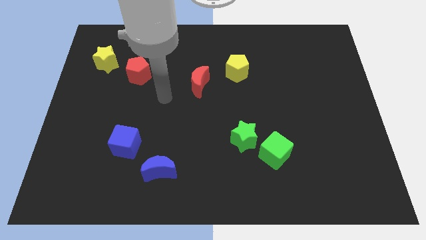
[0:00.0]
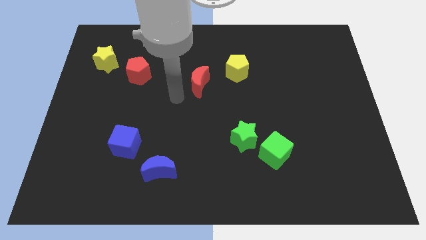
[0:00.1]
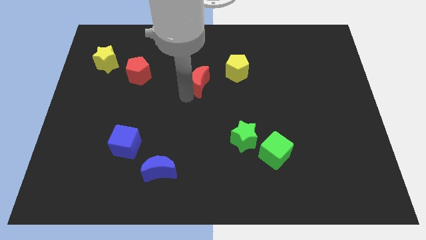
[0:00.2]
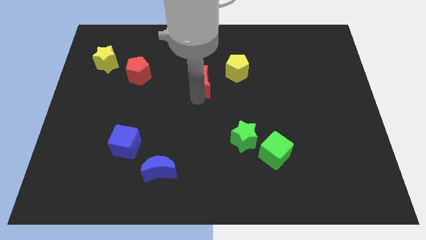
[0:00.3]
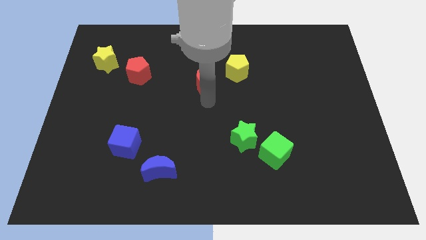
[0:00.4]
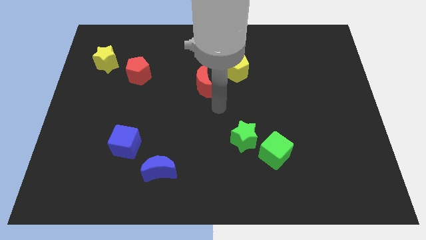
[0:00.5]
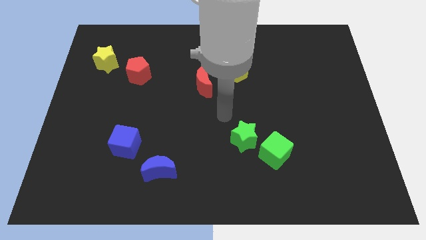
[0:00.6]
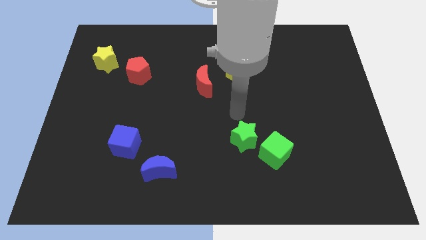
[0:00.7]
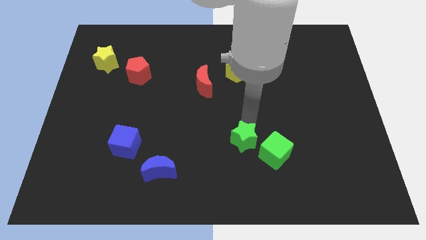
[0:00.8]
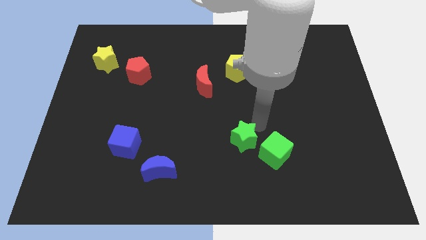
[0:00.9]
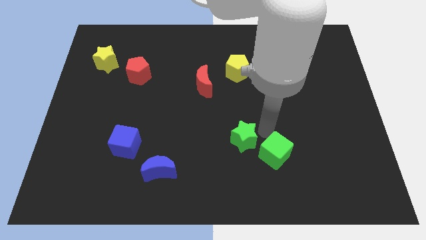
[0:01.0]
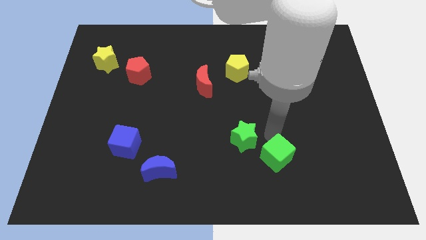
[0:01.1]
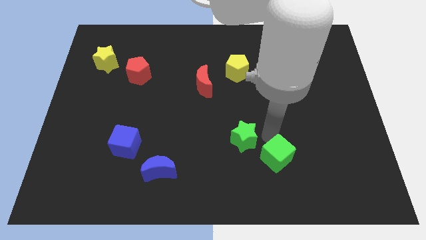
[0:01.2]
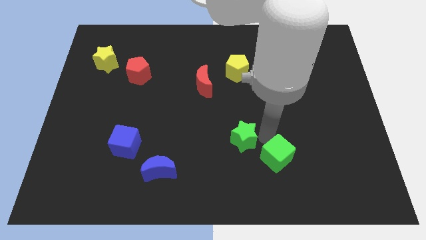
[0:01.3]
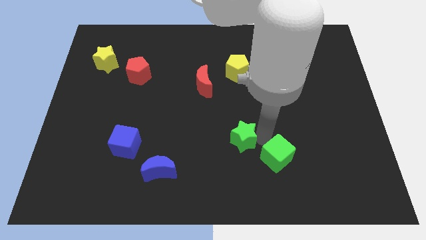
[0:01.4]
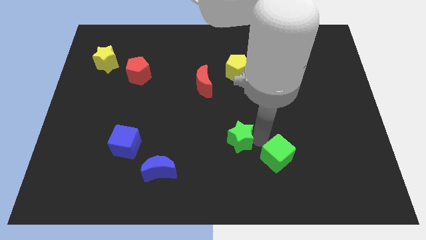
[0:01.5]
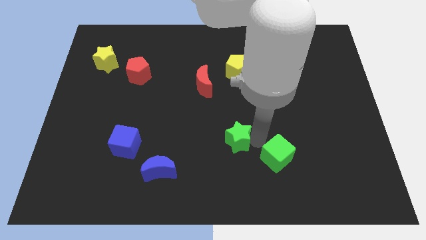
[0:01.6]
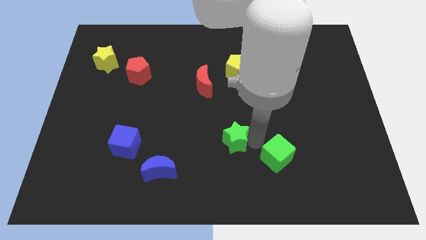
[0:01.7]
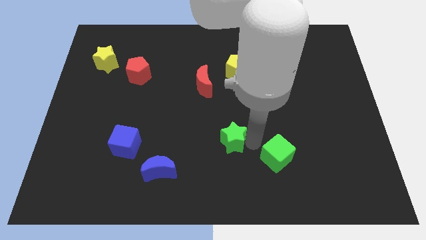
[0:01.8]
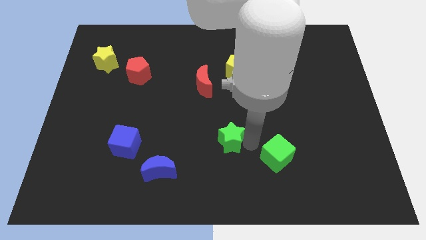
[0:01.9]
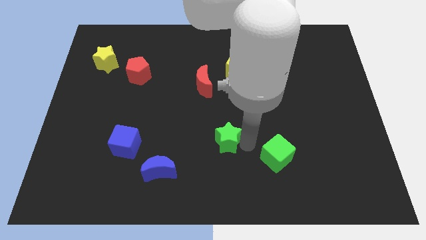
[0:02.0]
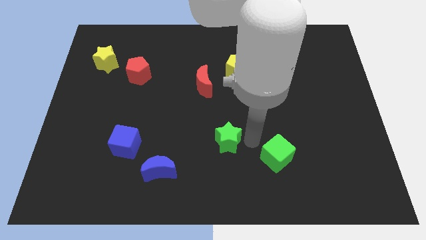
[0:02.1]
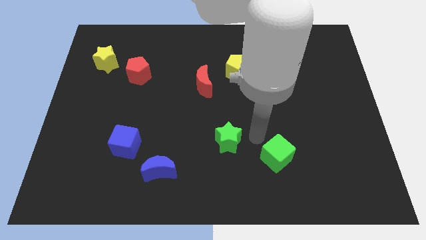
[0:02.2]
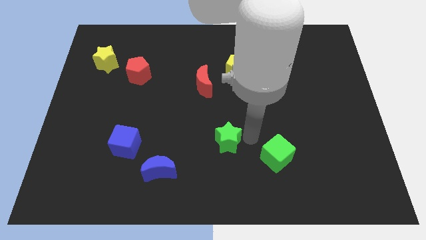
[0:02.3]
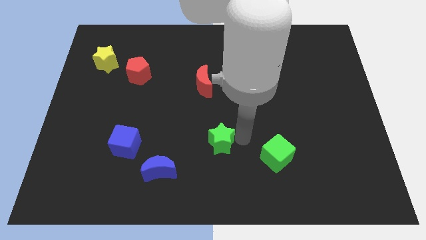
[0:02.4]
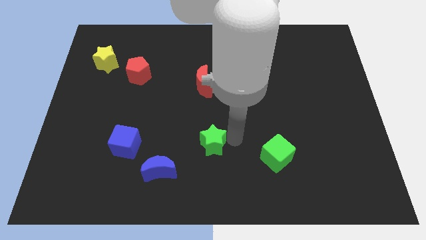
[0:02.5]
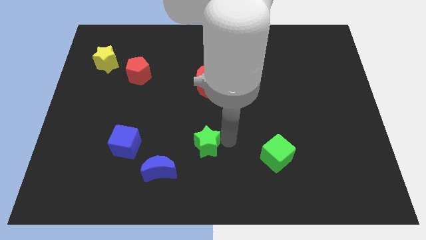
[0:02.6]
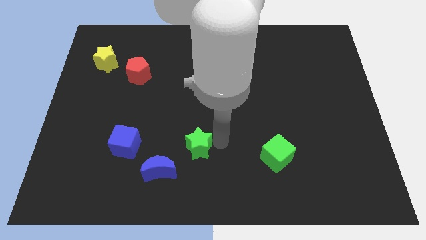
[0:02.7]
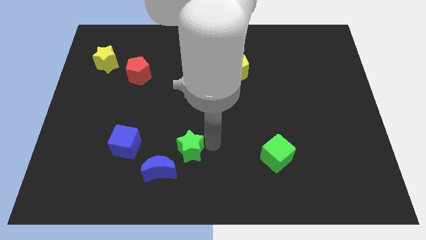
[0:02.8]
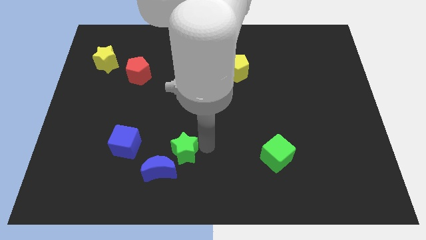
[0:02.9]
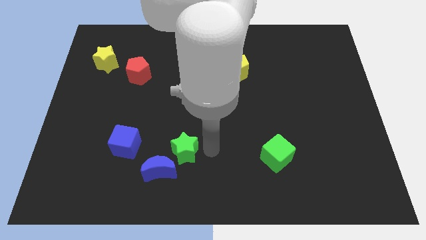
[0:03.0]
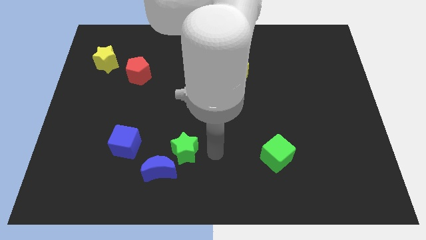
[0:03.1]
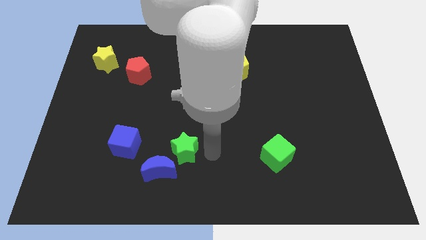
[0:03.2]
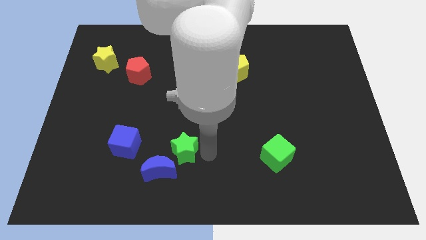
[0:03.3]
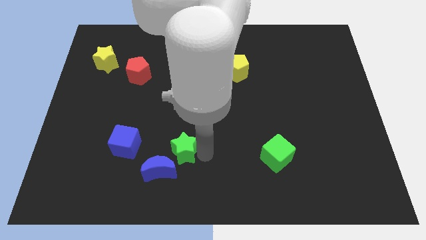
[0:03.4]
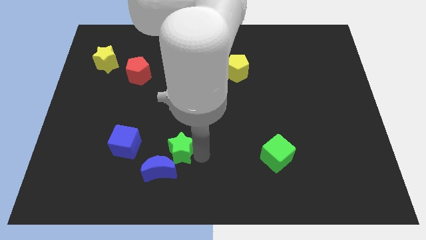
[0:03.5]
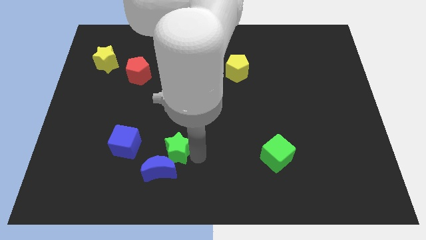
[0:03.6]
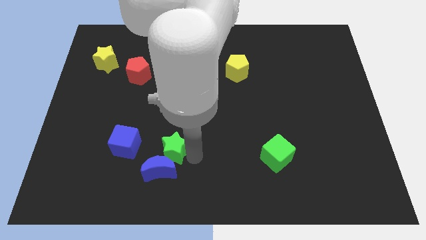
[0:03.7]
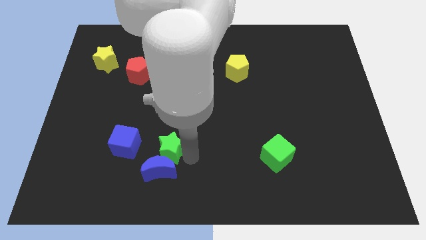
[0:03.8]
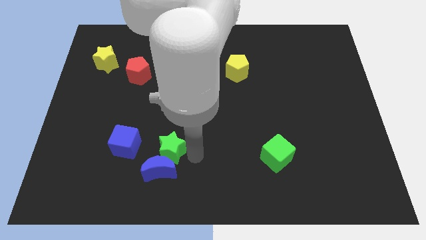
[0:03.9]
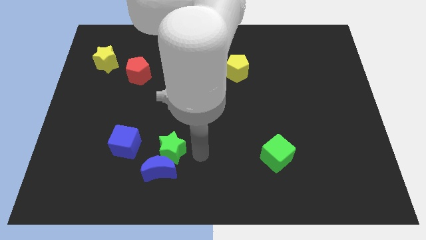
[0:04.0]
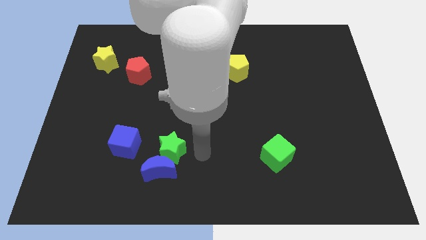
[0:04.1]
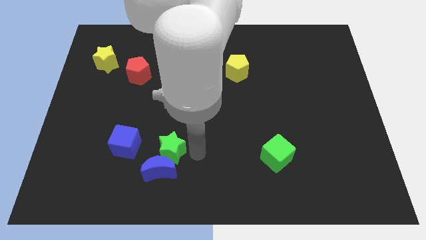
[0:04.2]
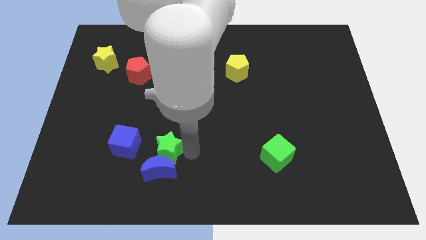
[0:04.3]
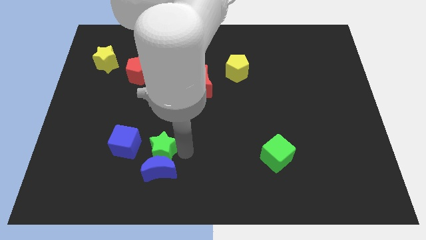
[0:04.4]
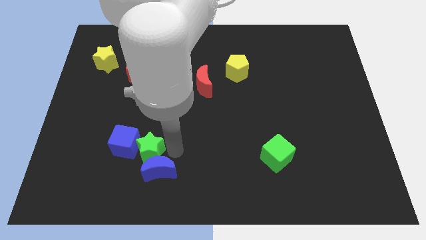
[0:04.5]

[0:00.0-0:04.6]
put the green star to the blue cube

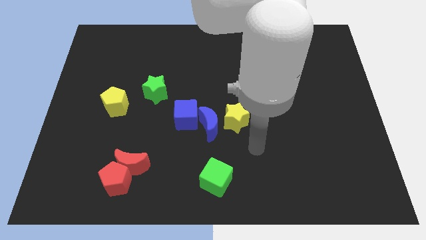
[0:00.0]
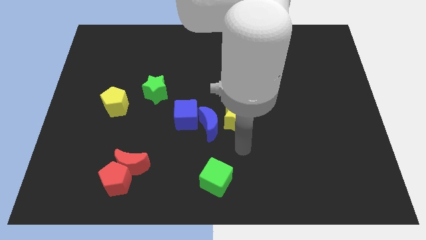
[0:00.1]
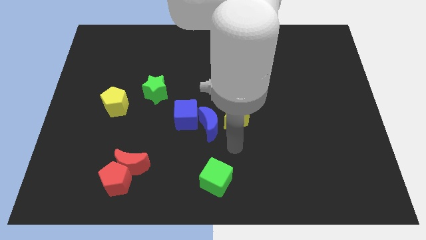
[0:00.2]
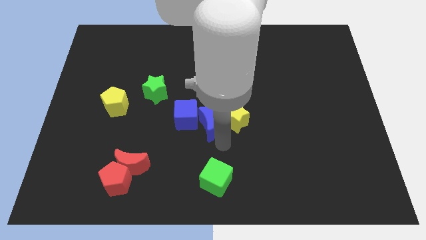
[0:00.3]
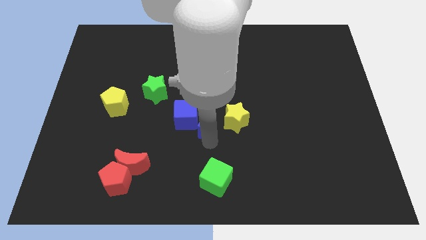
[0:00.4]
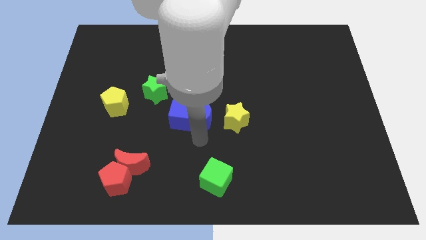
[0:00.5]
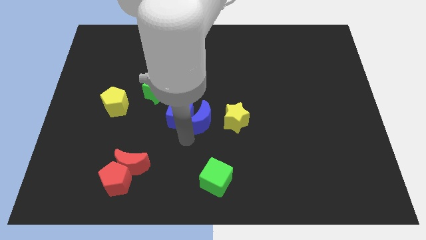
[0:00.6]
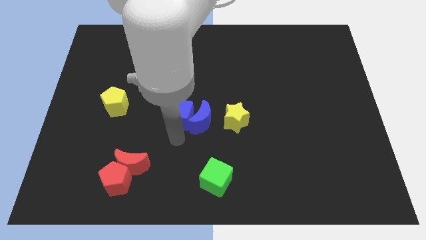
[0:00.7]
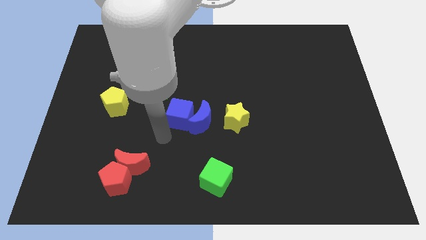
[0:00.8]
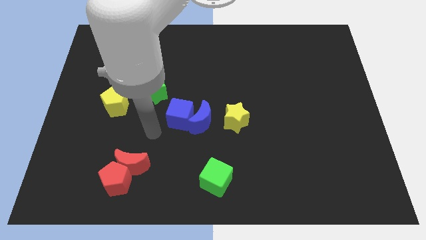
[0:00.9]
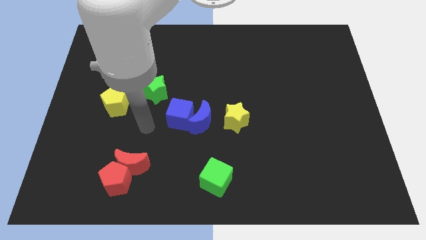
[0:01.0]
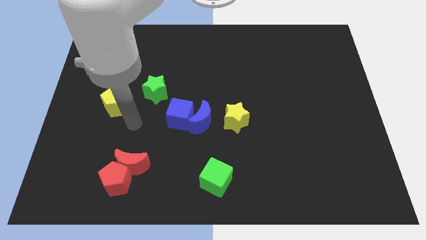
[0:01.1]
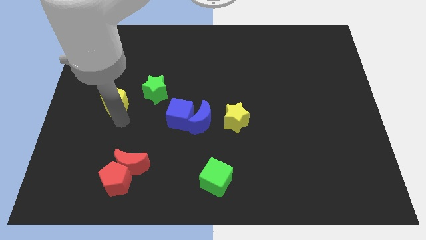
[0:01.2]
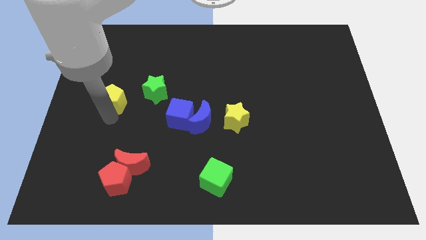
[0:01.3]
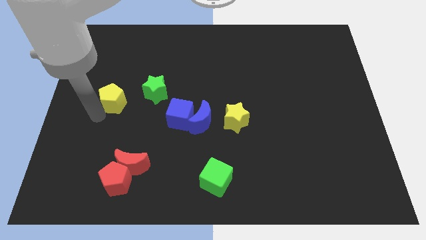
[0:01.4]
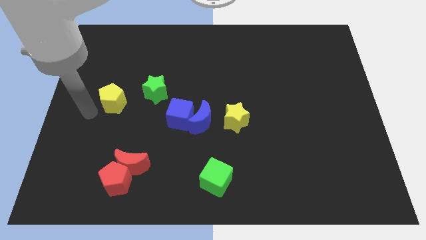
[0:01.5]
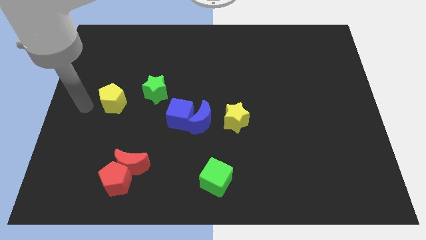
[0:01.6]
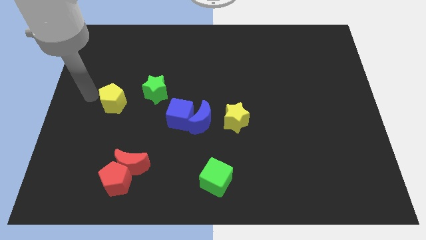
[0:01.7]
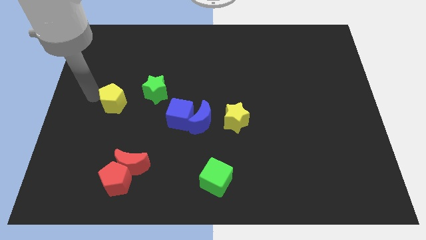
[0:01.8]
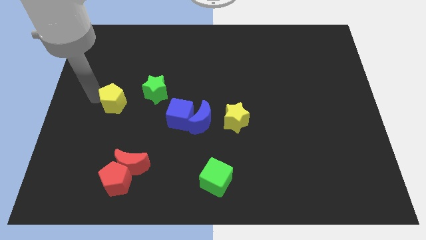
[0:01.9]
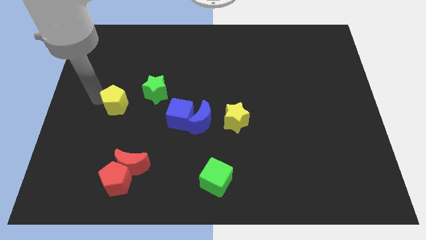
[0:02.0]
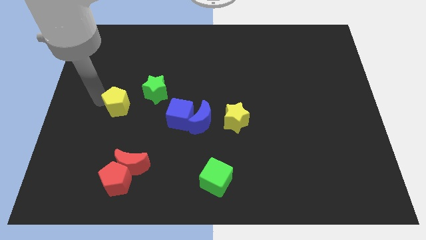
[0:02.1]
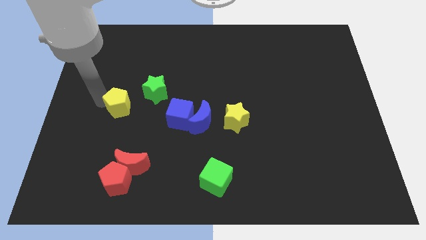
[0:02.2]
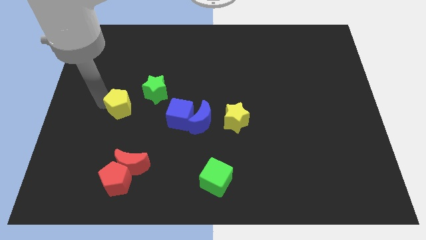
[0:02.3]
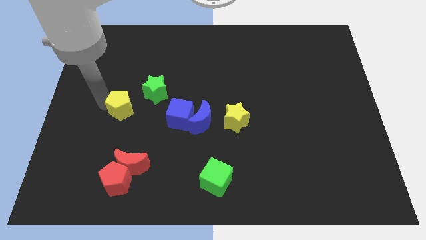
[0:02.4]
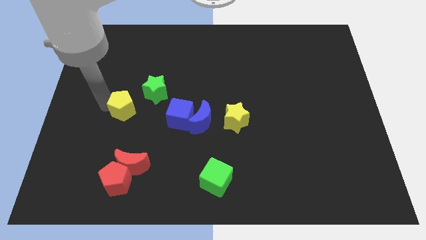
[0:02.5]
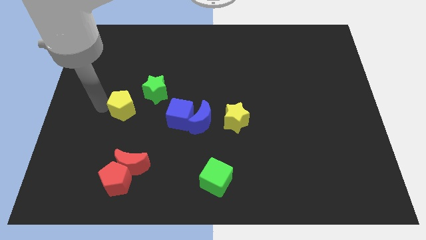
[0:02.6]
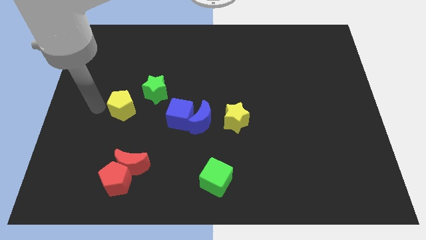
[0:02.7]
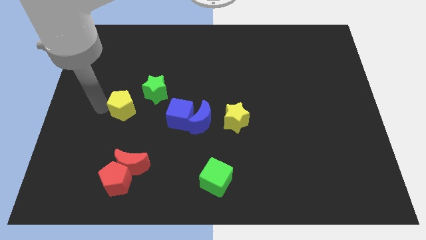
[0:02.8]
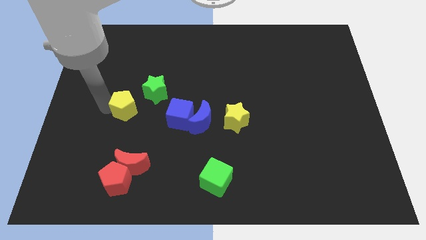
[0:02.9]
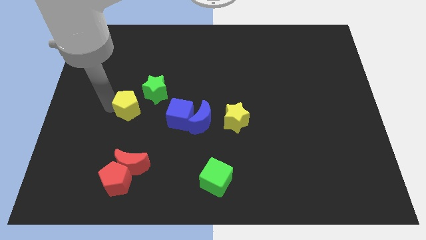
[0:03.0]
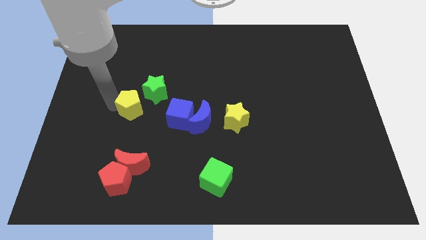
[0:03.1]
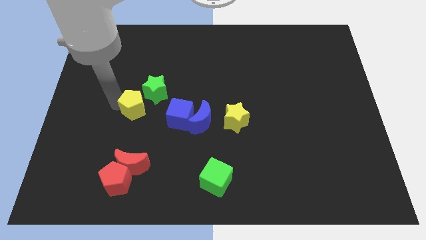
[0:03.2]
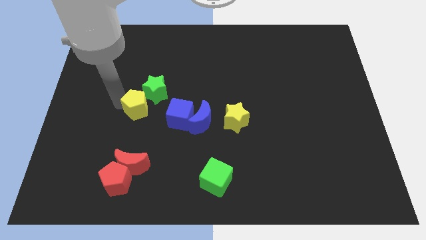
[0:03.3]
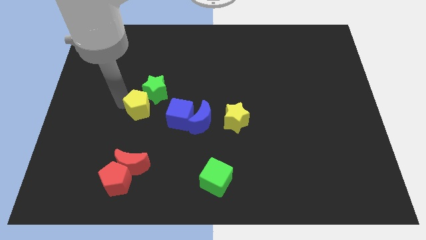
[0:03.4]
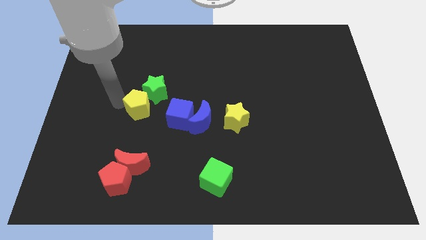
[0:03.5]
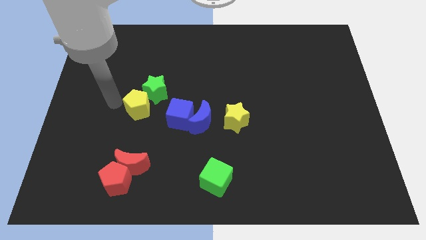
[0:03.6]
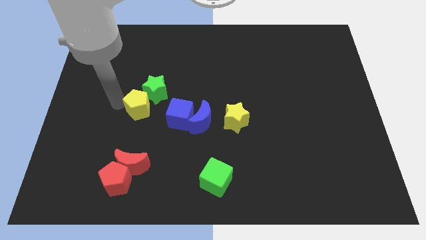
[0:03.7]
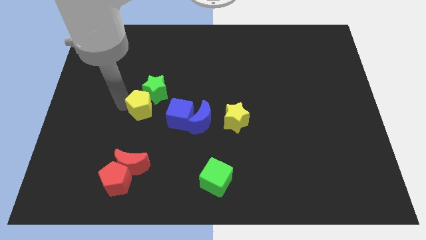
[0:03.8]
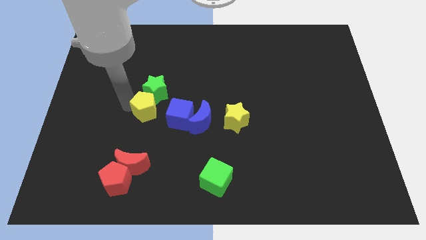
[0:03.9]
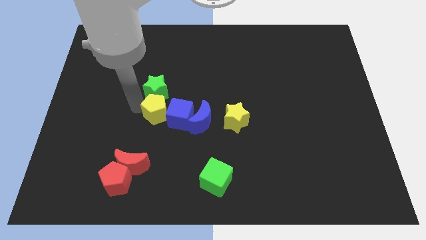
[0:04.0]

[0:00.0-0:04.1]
move the yellow pentagon to the blue cube
